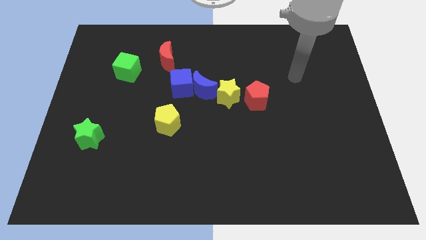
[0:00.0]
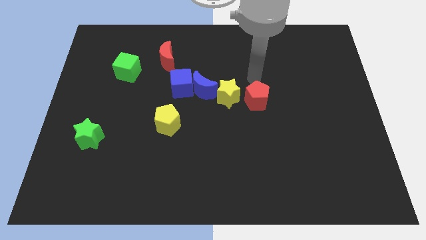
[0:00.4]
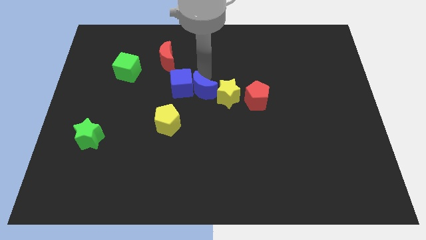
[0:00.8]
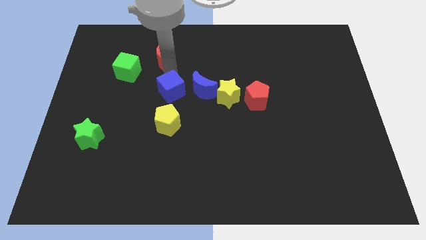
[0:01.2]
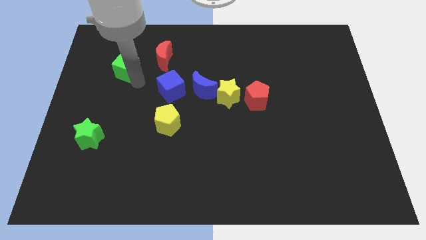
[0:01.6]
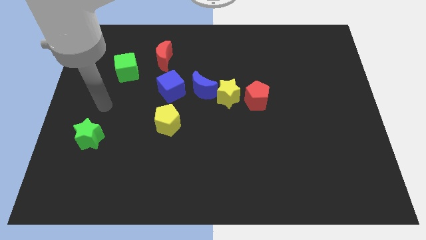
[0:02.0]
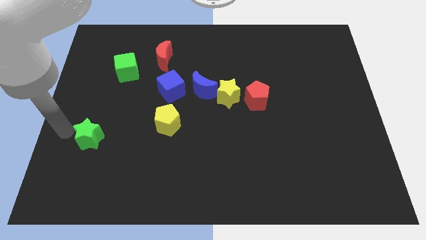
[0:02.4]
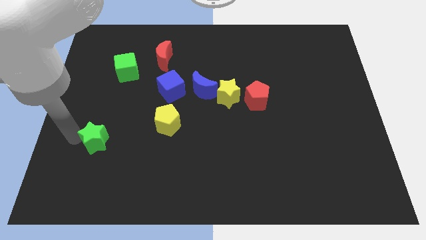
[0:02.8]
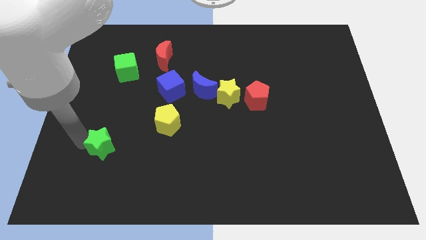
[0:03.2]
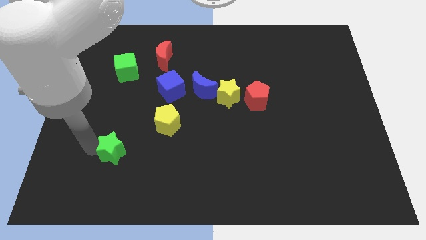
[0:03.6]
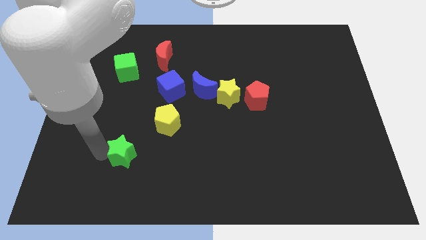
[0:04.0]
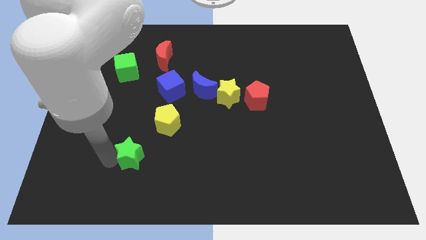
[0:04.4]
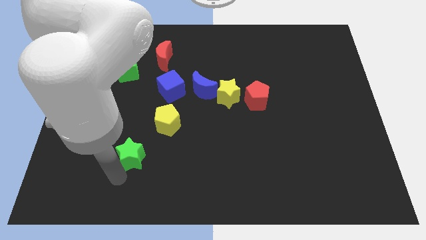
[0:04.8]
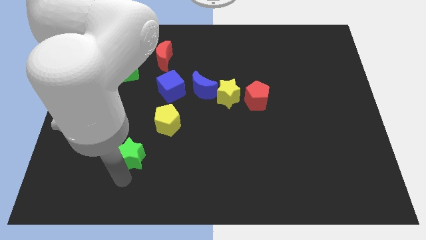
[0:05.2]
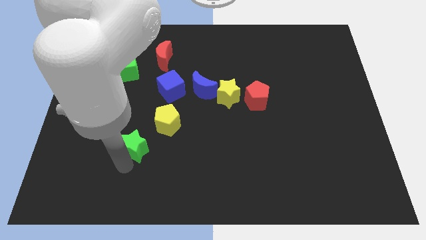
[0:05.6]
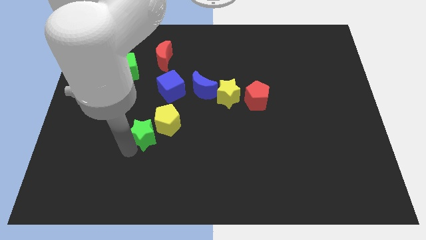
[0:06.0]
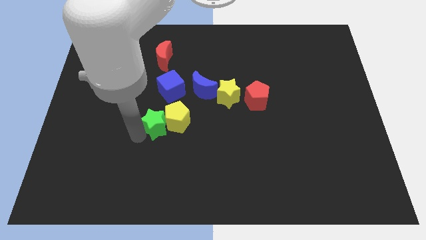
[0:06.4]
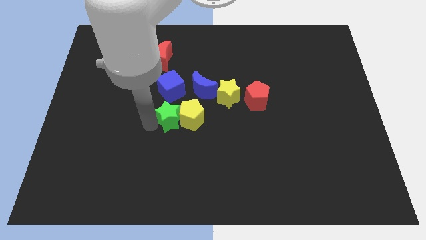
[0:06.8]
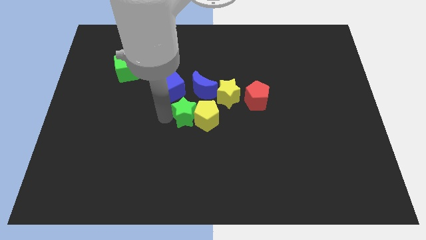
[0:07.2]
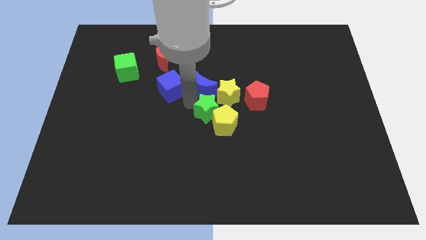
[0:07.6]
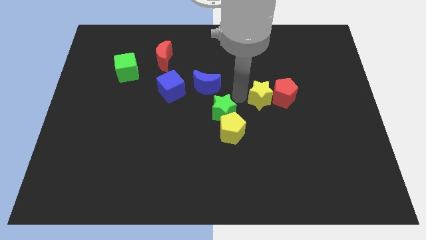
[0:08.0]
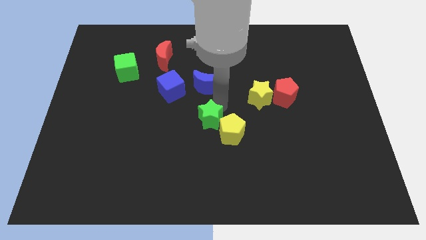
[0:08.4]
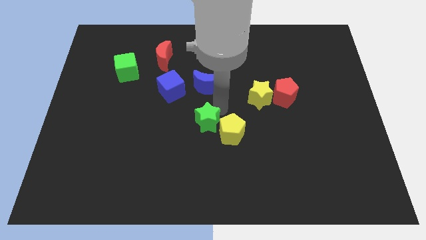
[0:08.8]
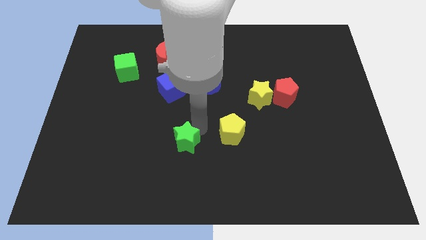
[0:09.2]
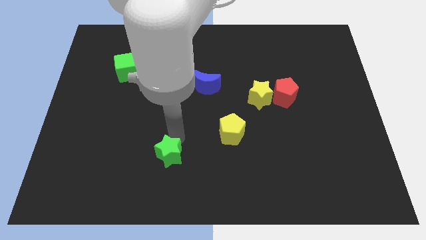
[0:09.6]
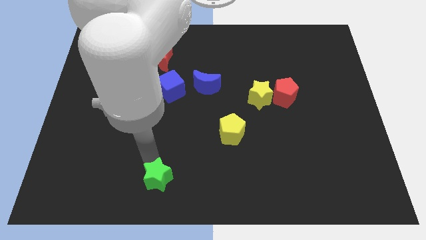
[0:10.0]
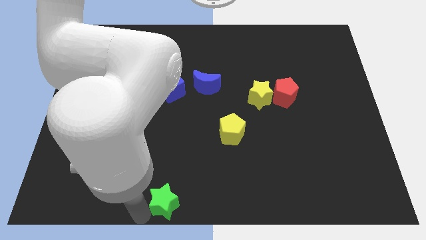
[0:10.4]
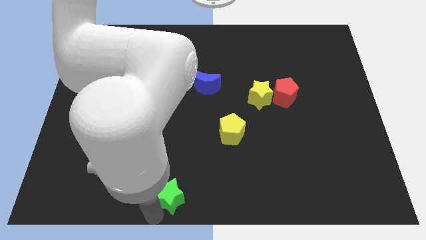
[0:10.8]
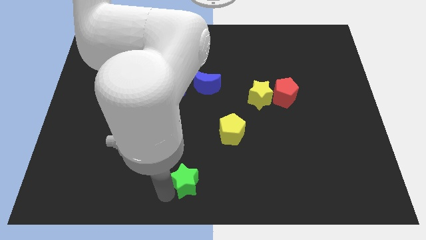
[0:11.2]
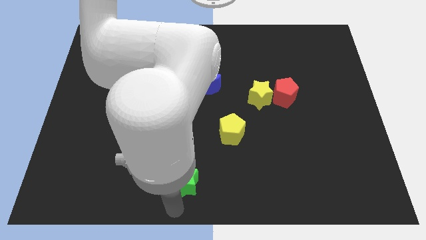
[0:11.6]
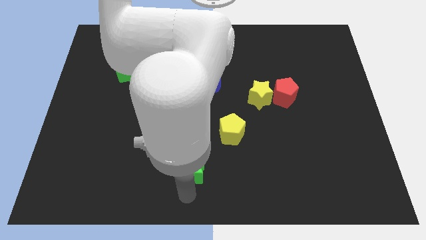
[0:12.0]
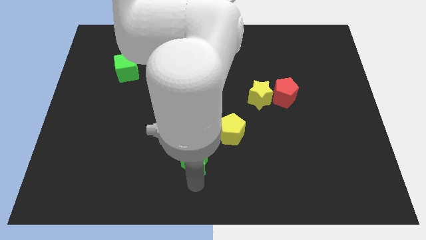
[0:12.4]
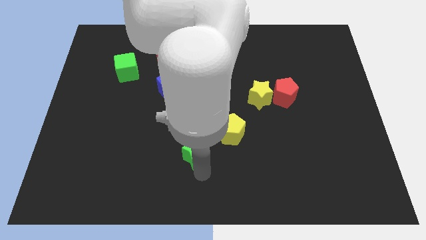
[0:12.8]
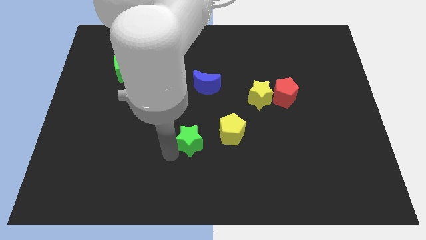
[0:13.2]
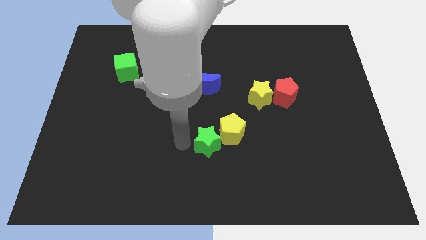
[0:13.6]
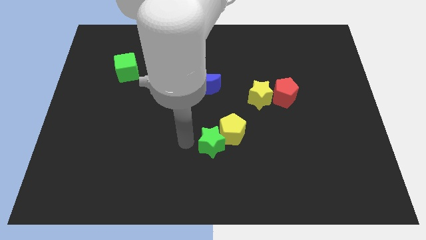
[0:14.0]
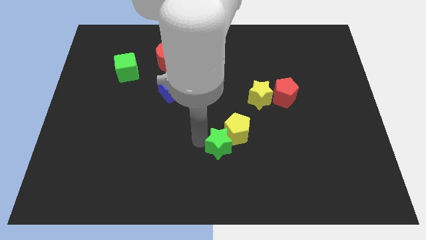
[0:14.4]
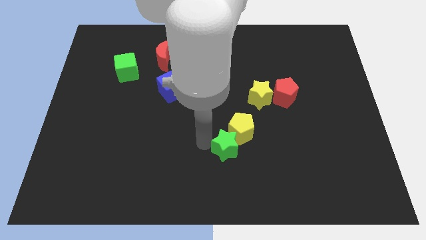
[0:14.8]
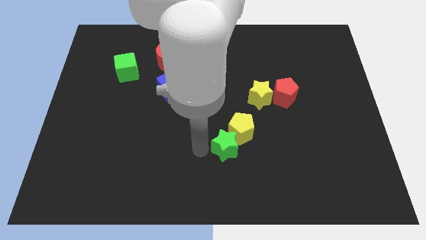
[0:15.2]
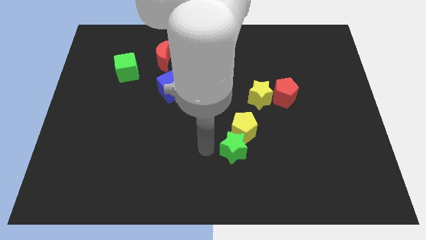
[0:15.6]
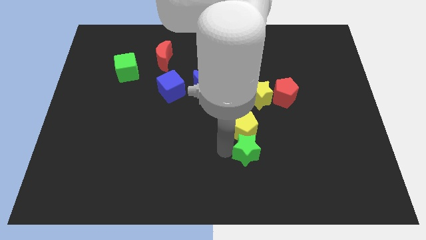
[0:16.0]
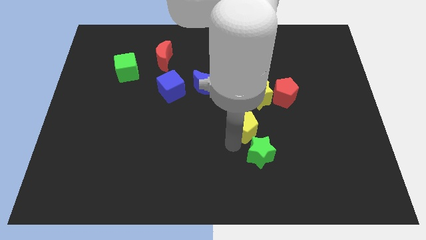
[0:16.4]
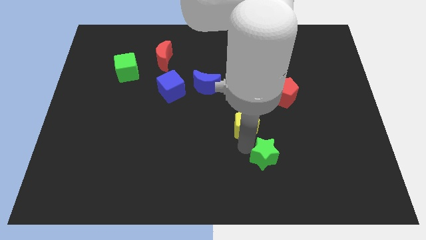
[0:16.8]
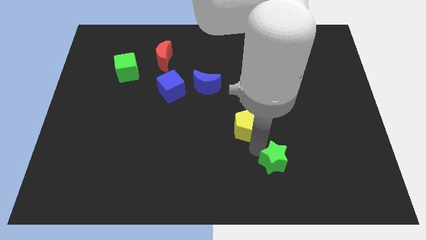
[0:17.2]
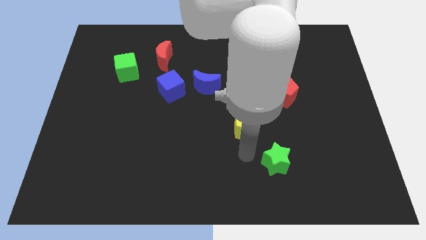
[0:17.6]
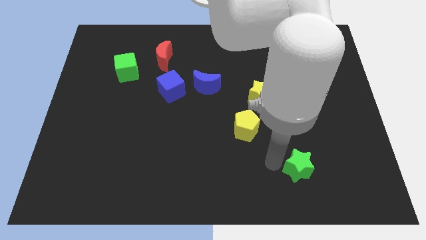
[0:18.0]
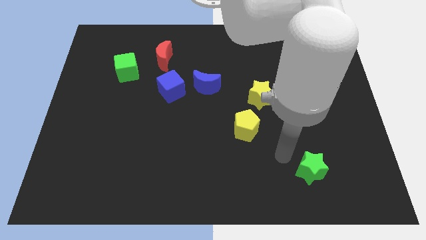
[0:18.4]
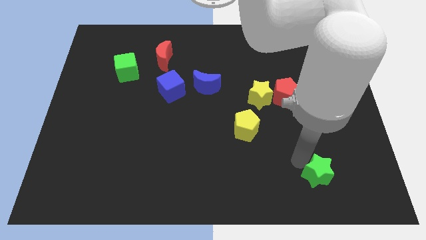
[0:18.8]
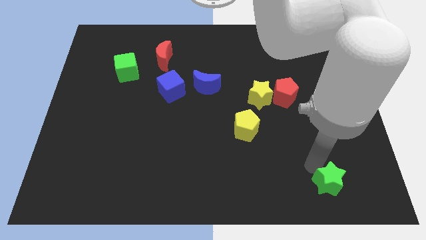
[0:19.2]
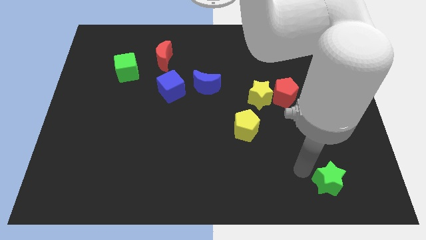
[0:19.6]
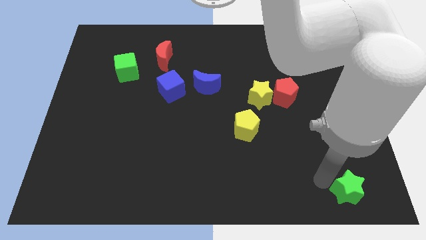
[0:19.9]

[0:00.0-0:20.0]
slide the green star to the bottom right corner

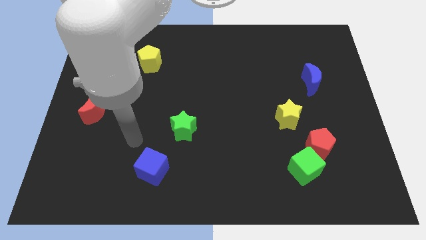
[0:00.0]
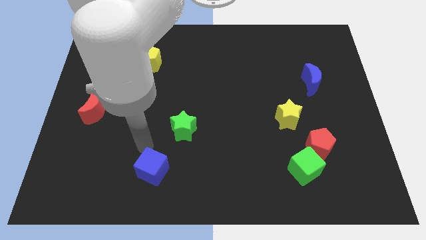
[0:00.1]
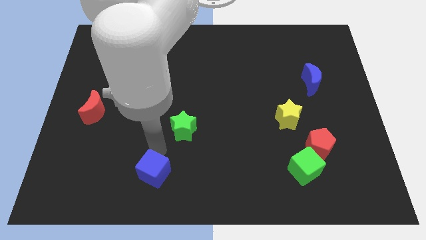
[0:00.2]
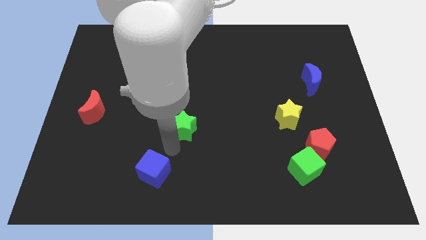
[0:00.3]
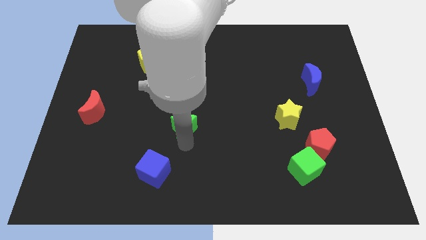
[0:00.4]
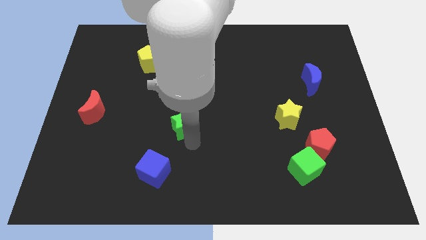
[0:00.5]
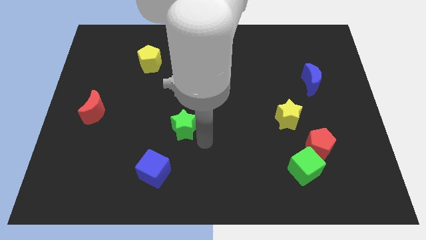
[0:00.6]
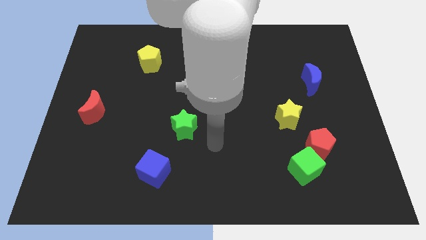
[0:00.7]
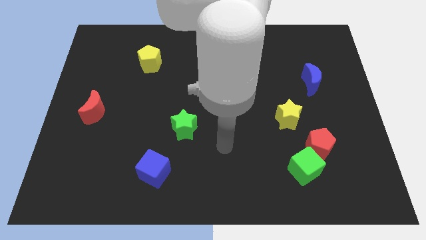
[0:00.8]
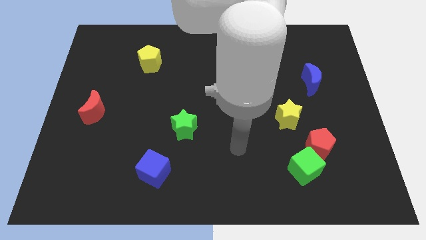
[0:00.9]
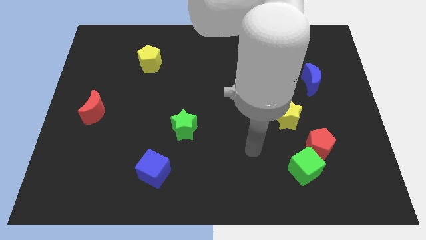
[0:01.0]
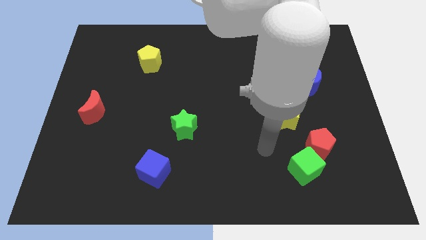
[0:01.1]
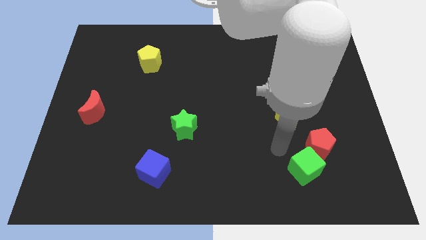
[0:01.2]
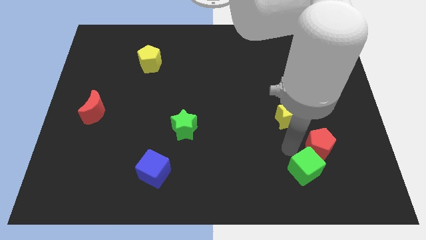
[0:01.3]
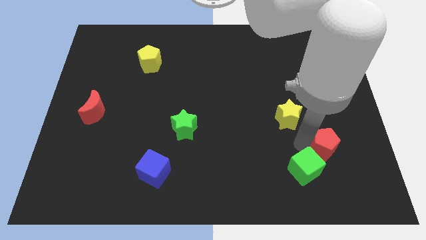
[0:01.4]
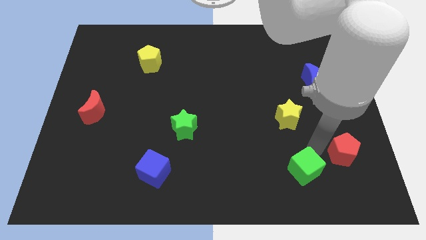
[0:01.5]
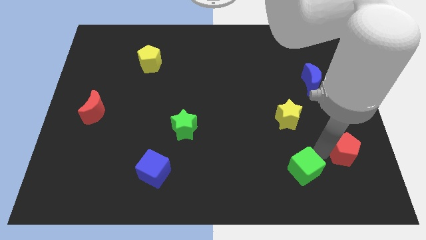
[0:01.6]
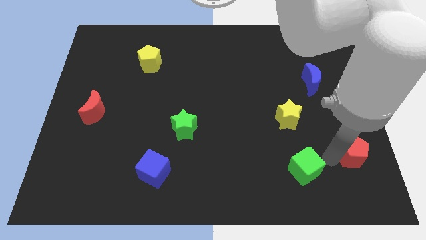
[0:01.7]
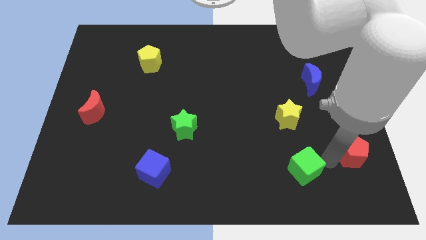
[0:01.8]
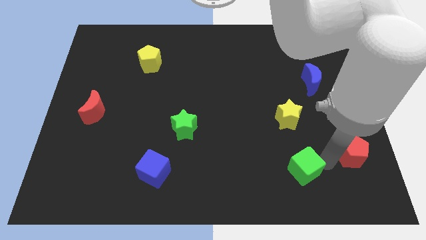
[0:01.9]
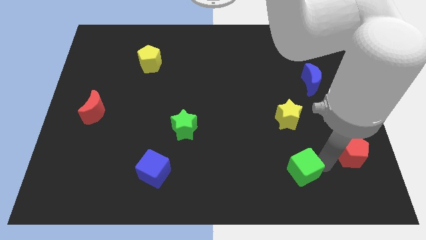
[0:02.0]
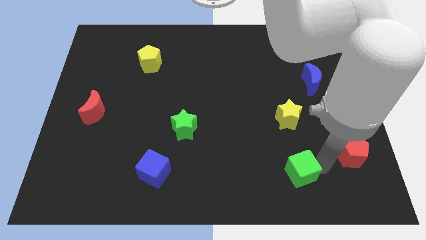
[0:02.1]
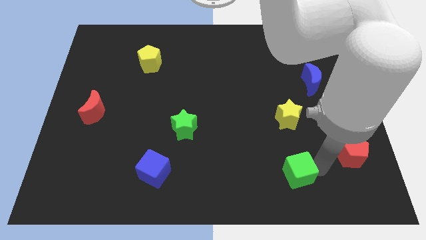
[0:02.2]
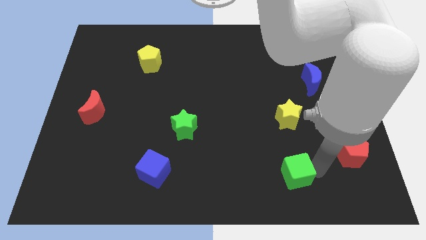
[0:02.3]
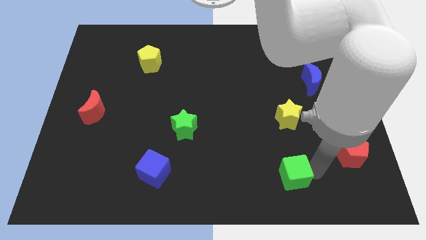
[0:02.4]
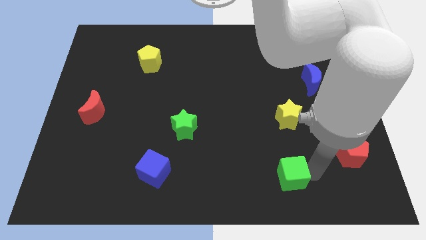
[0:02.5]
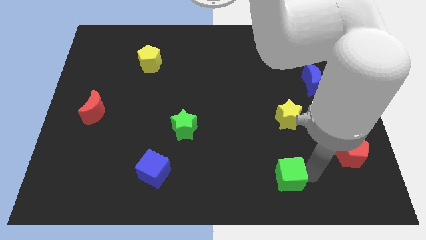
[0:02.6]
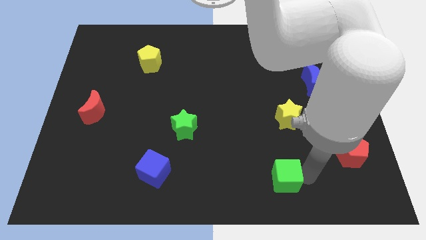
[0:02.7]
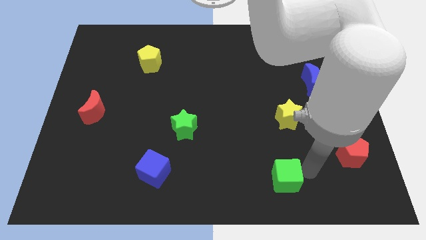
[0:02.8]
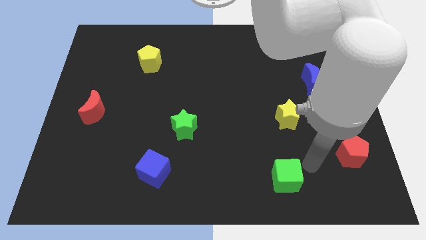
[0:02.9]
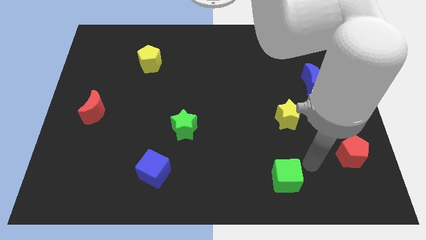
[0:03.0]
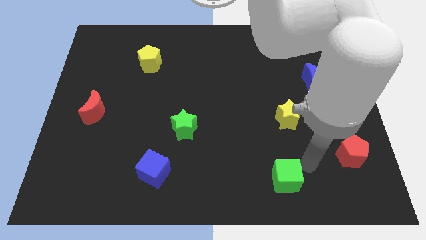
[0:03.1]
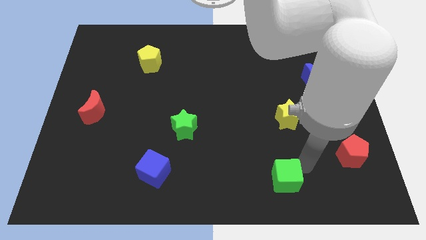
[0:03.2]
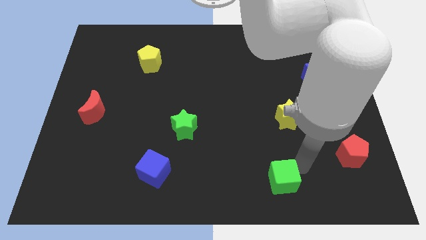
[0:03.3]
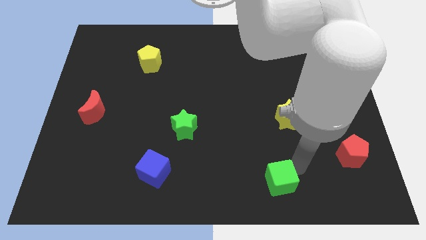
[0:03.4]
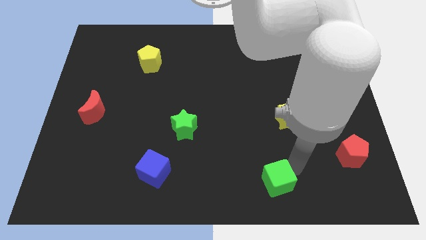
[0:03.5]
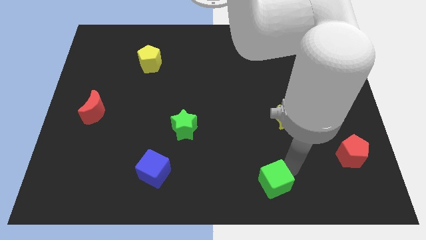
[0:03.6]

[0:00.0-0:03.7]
push the green cube to the bottom side
